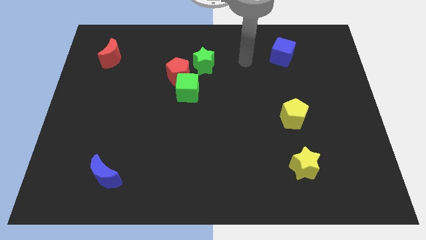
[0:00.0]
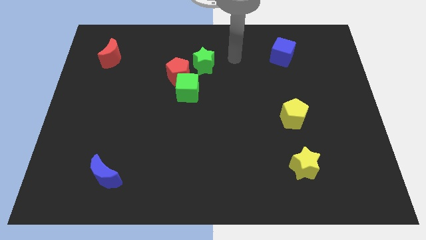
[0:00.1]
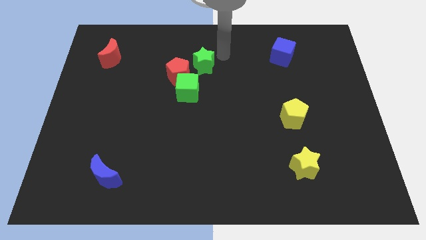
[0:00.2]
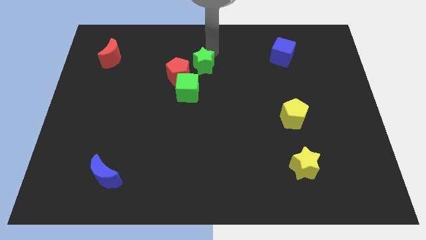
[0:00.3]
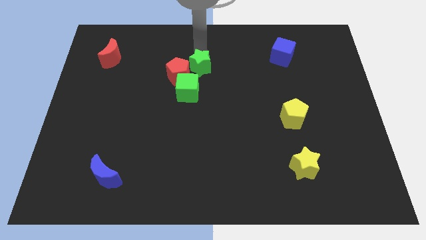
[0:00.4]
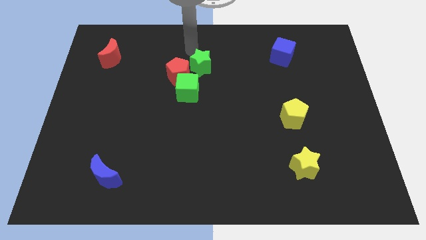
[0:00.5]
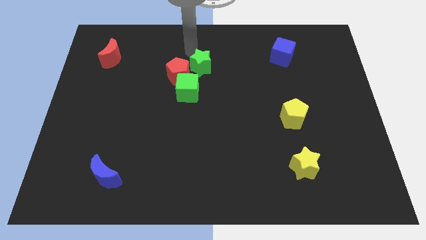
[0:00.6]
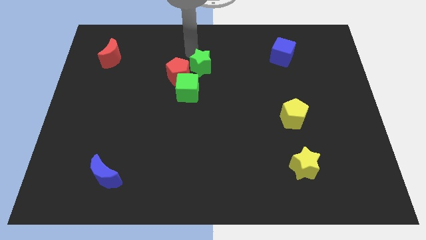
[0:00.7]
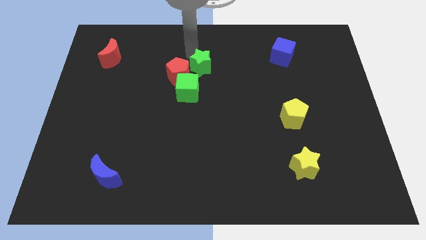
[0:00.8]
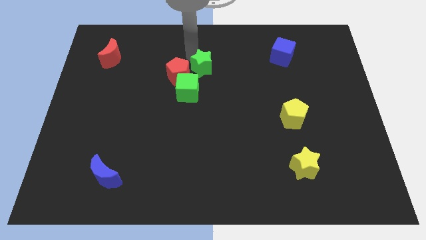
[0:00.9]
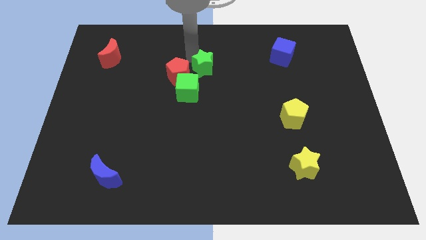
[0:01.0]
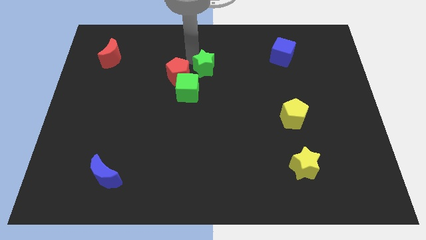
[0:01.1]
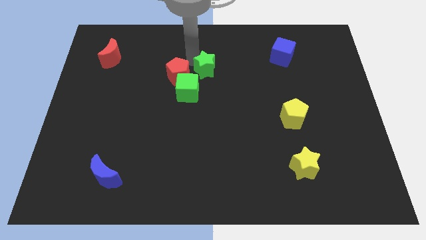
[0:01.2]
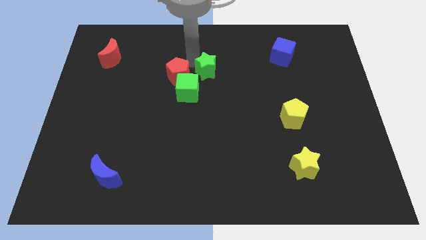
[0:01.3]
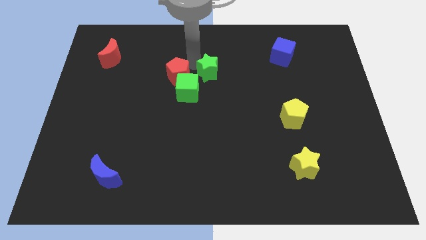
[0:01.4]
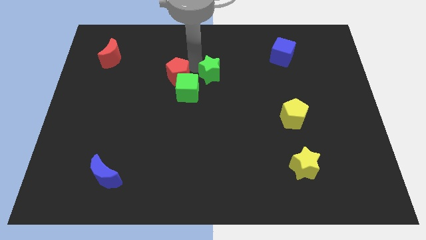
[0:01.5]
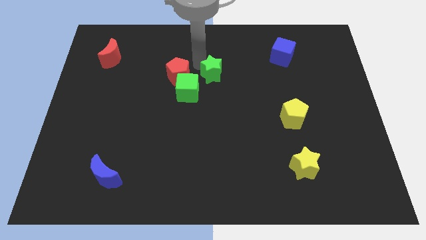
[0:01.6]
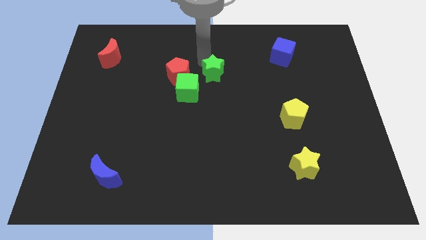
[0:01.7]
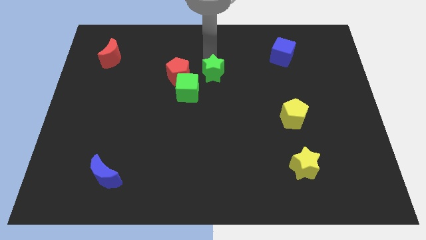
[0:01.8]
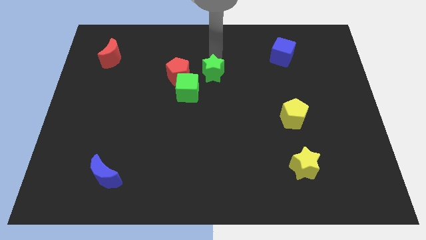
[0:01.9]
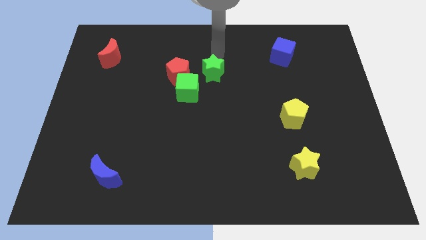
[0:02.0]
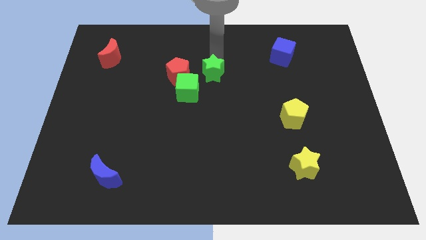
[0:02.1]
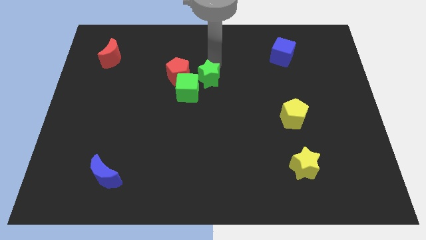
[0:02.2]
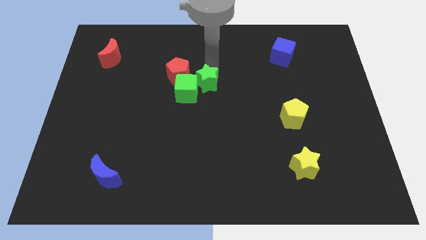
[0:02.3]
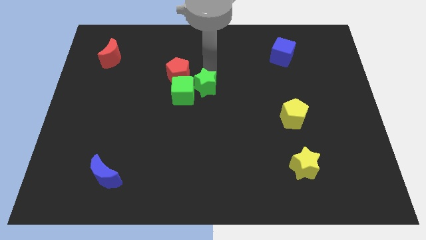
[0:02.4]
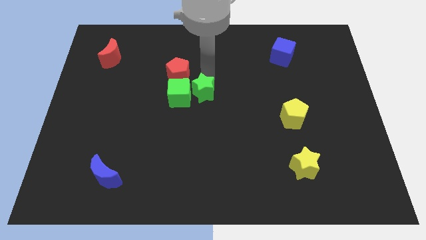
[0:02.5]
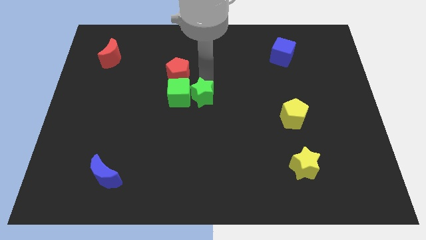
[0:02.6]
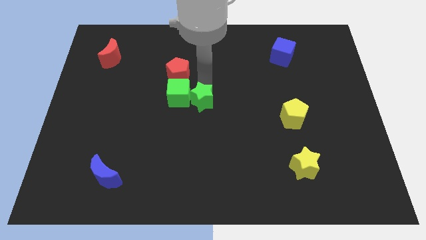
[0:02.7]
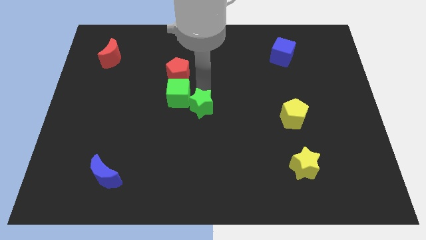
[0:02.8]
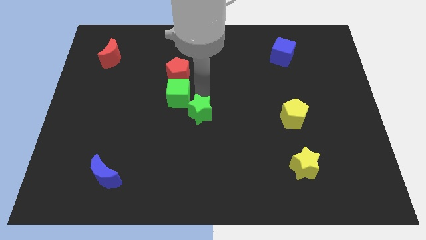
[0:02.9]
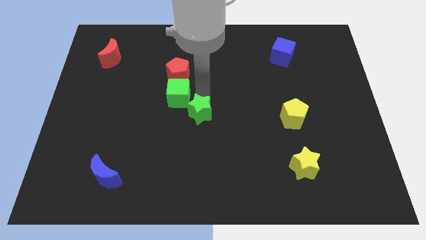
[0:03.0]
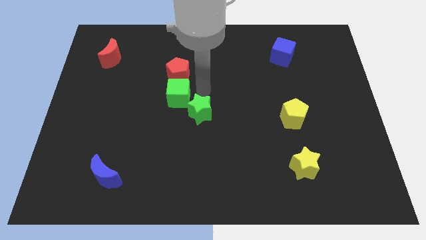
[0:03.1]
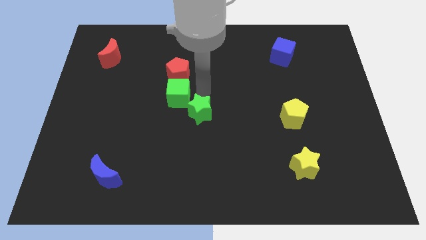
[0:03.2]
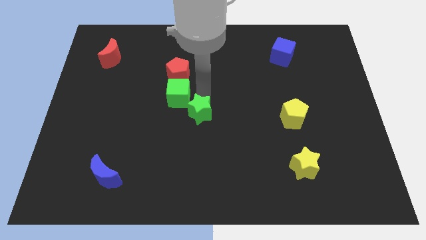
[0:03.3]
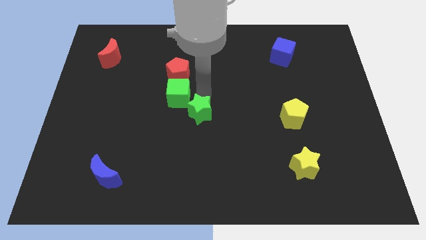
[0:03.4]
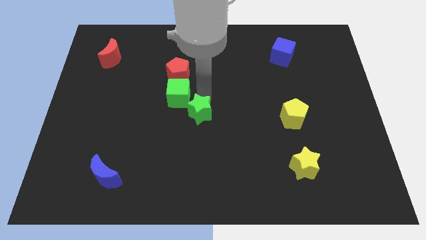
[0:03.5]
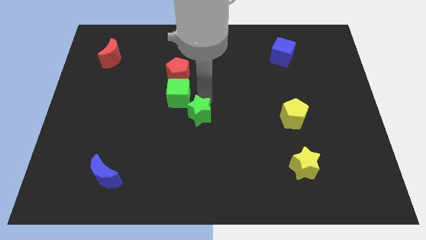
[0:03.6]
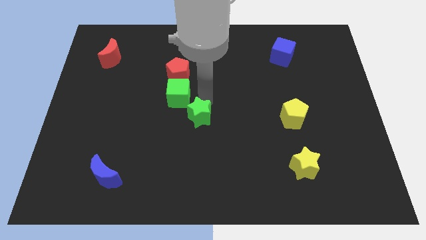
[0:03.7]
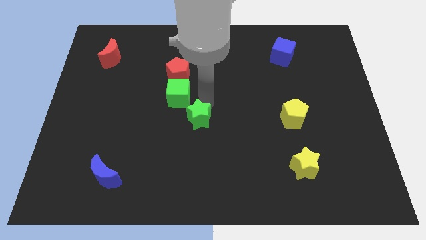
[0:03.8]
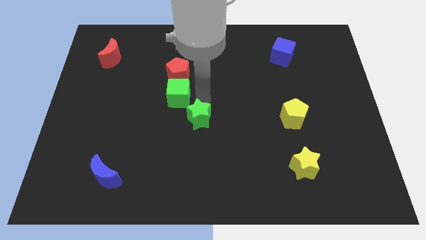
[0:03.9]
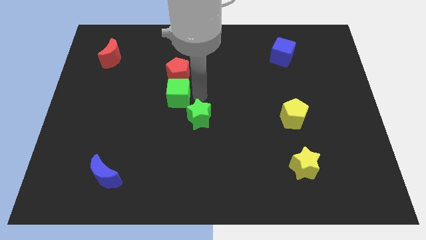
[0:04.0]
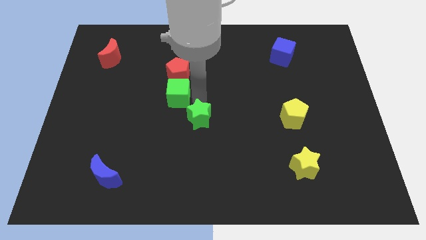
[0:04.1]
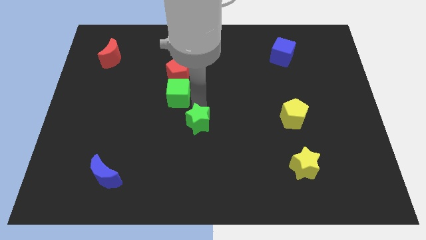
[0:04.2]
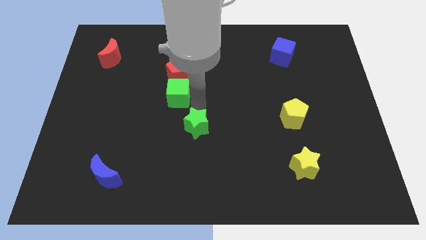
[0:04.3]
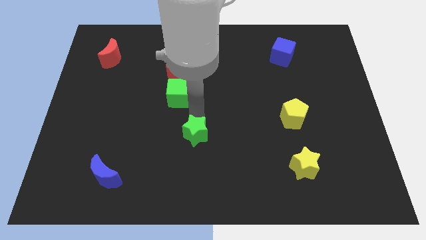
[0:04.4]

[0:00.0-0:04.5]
push the green star down

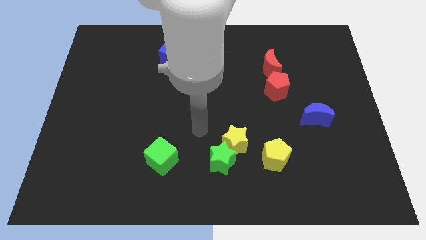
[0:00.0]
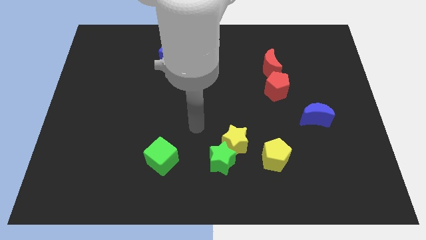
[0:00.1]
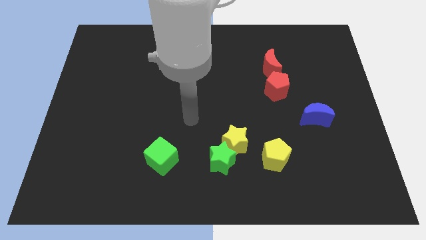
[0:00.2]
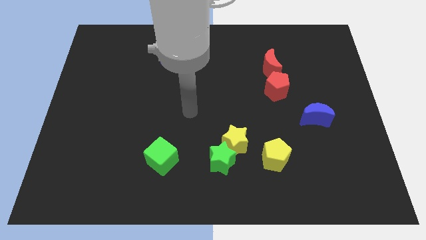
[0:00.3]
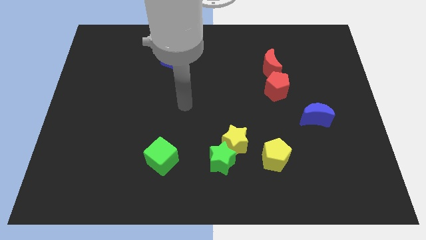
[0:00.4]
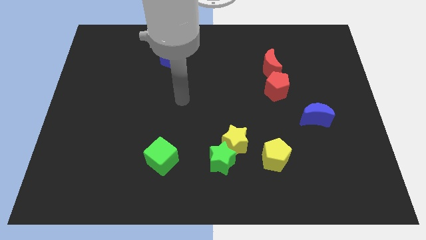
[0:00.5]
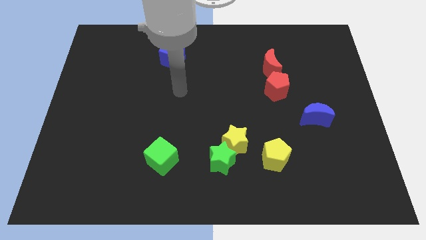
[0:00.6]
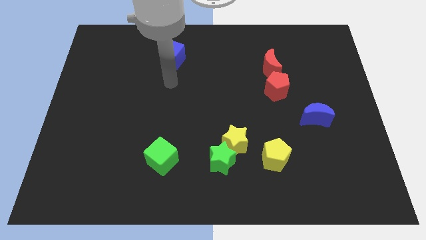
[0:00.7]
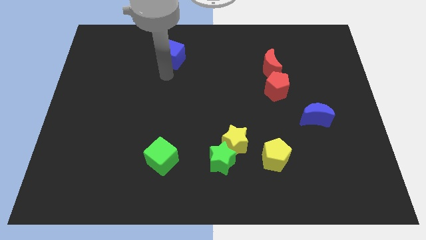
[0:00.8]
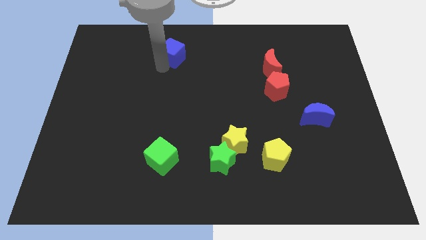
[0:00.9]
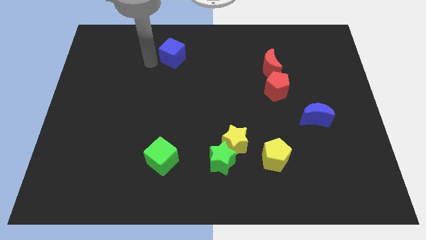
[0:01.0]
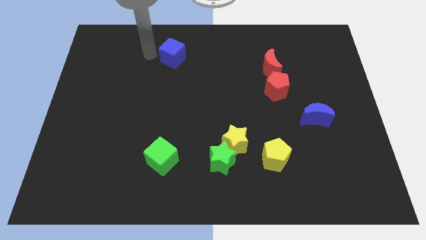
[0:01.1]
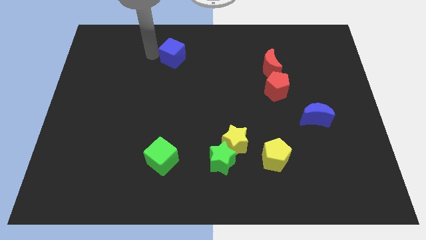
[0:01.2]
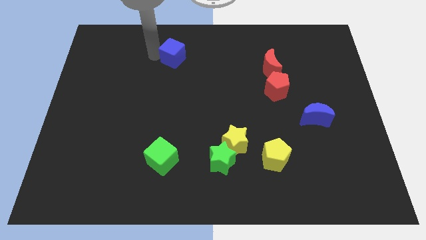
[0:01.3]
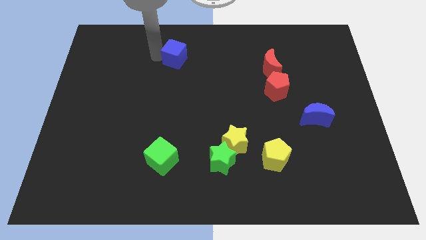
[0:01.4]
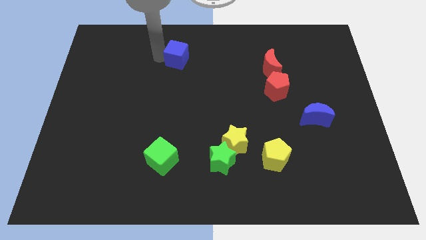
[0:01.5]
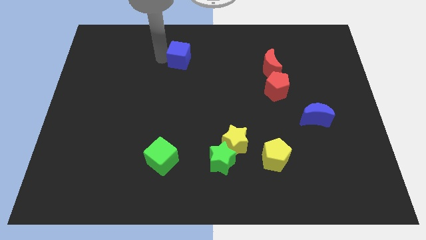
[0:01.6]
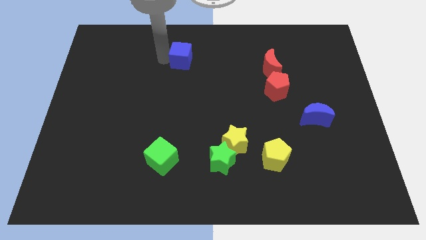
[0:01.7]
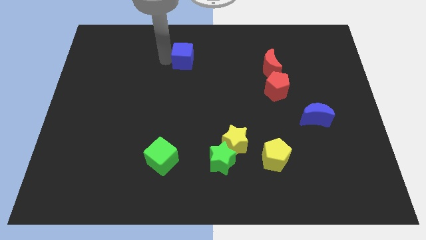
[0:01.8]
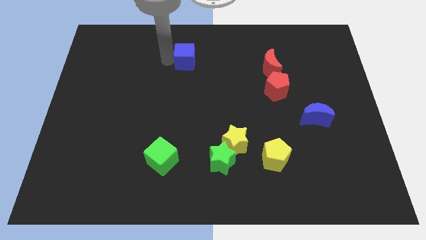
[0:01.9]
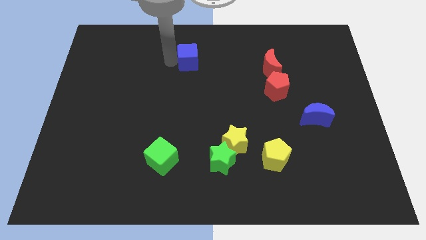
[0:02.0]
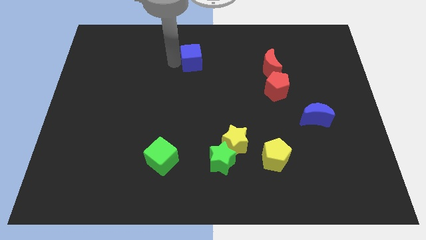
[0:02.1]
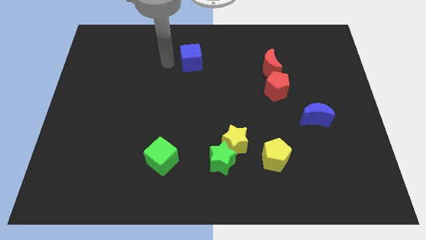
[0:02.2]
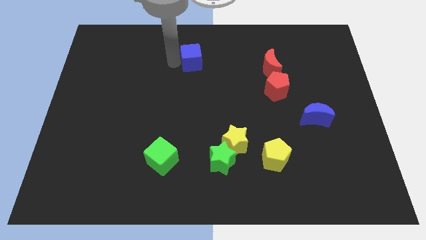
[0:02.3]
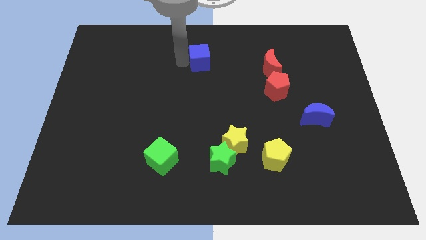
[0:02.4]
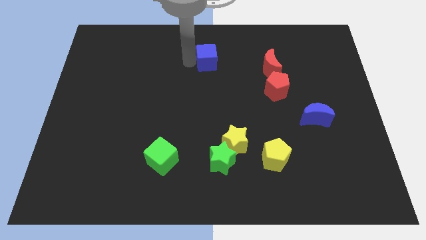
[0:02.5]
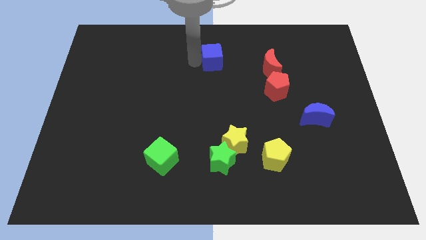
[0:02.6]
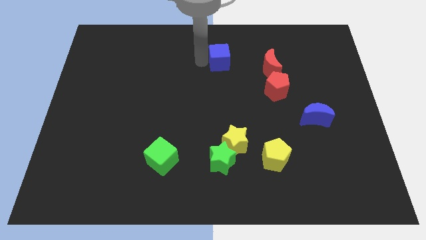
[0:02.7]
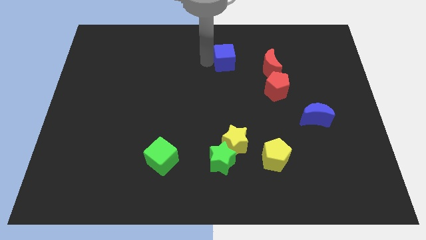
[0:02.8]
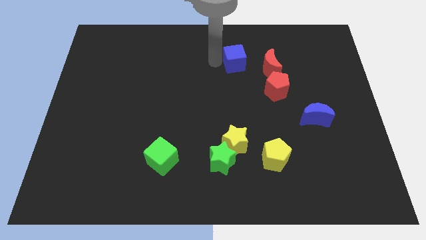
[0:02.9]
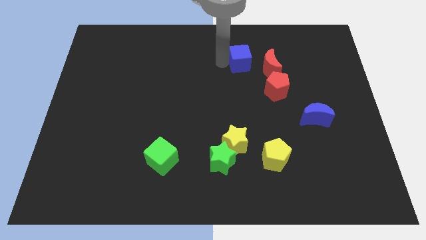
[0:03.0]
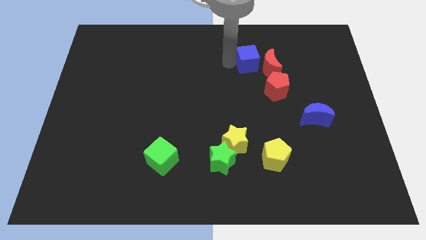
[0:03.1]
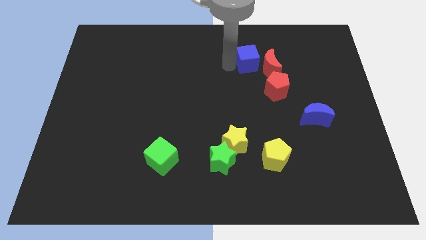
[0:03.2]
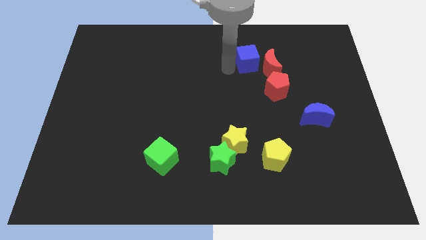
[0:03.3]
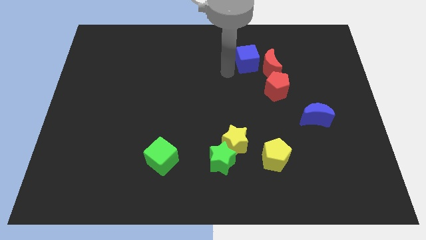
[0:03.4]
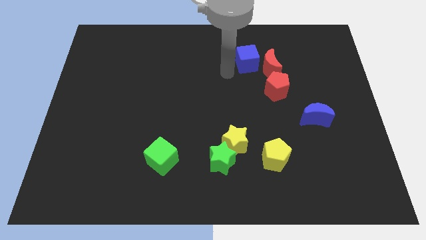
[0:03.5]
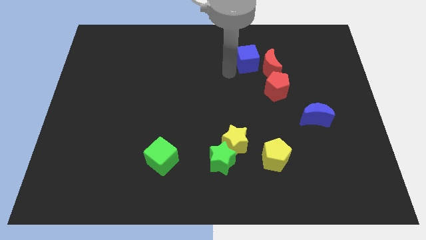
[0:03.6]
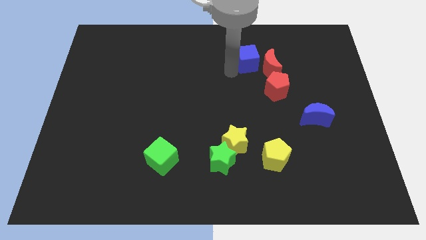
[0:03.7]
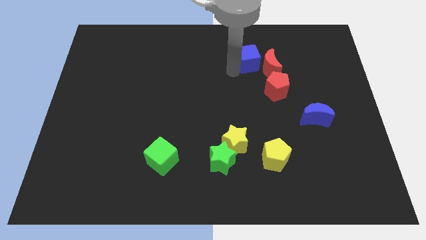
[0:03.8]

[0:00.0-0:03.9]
slide the blue cube to the right
